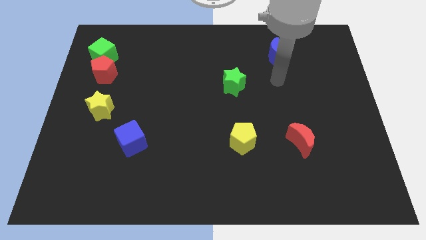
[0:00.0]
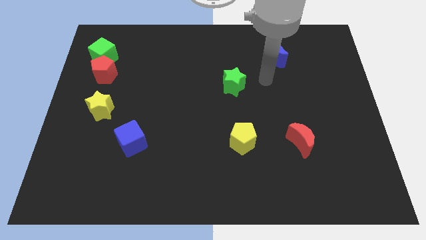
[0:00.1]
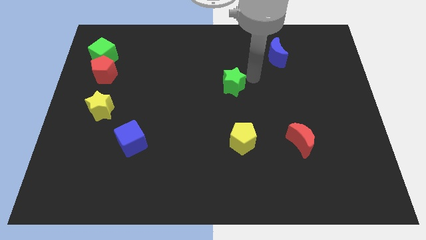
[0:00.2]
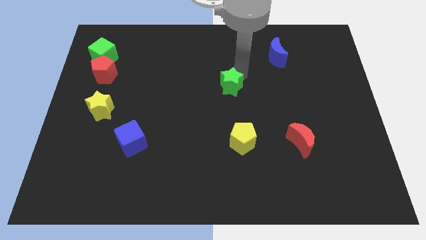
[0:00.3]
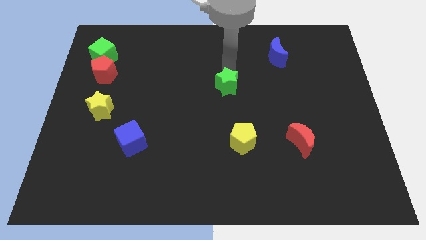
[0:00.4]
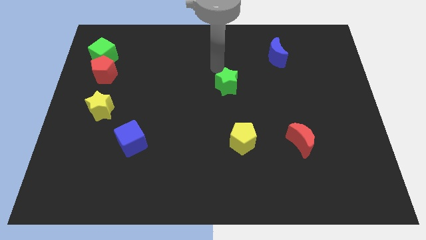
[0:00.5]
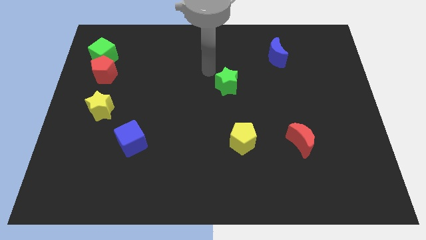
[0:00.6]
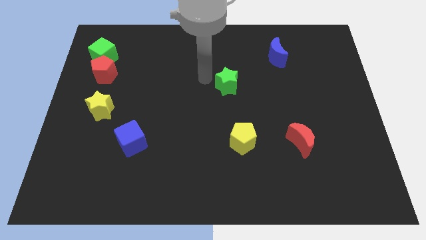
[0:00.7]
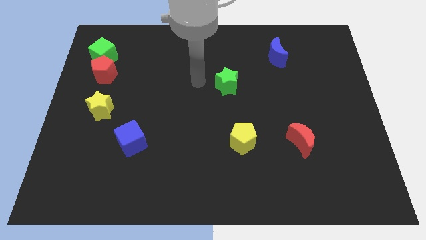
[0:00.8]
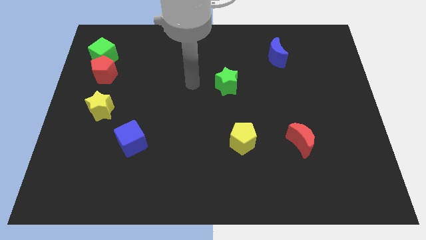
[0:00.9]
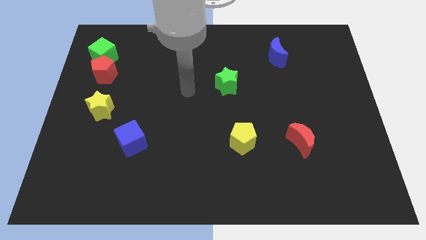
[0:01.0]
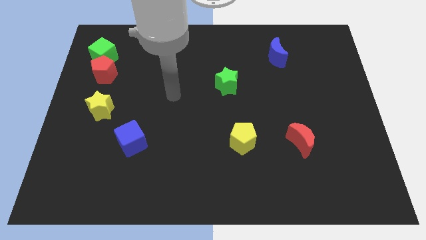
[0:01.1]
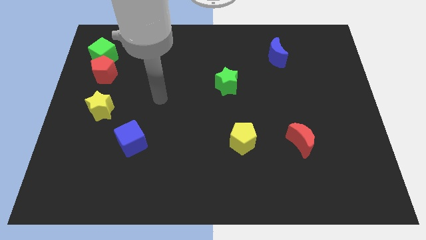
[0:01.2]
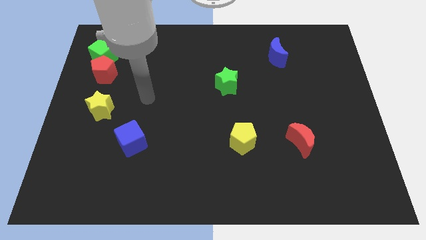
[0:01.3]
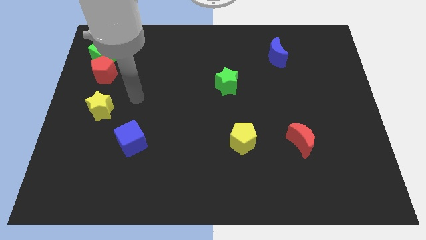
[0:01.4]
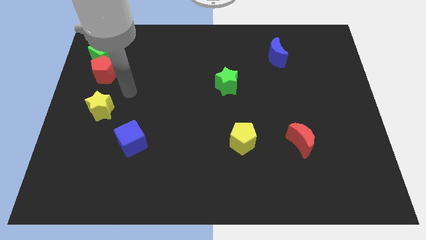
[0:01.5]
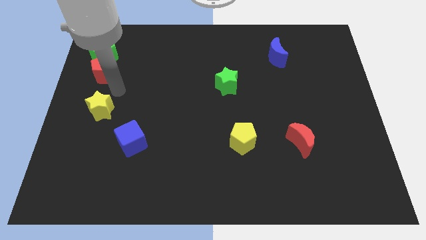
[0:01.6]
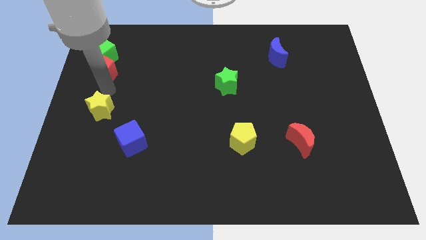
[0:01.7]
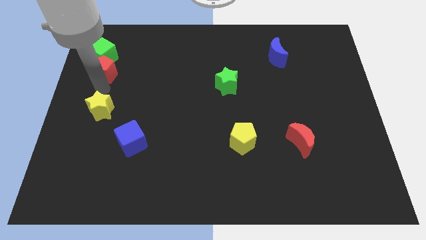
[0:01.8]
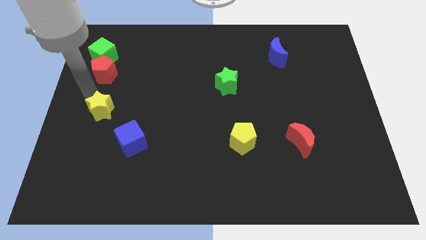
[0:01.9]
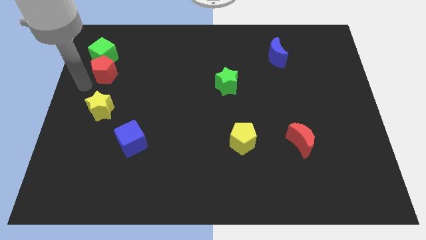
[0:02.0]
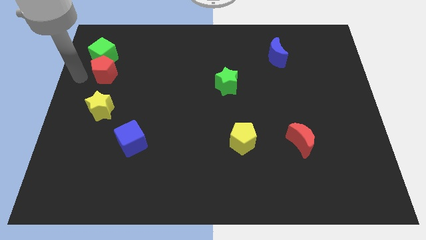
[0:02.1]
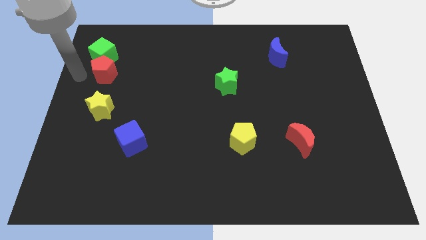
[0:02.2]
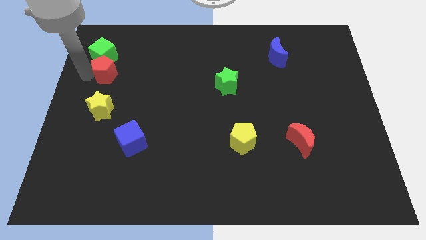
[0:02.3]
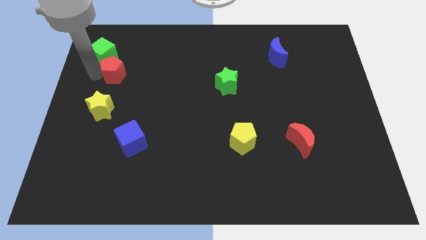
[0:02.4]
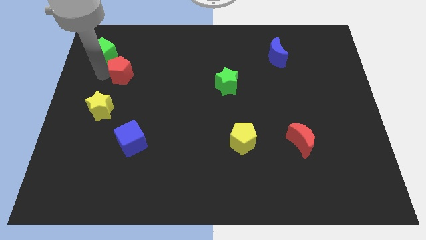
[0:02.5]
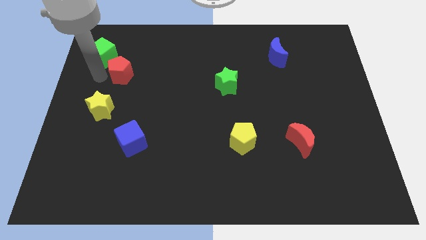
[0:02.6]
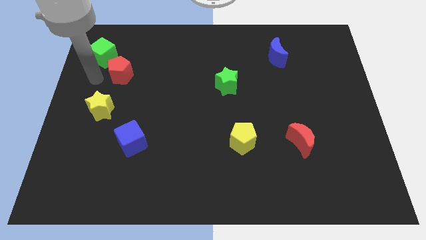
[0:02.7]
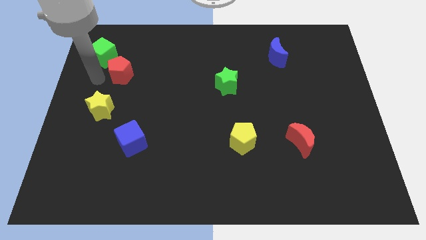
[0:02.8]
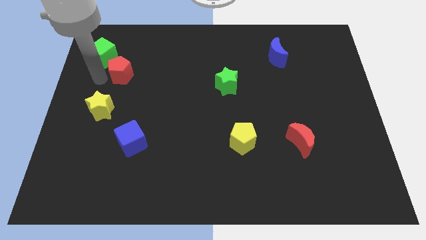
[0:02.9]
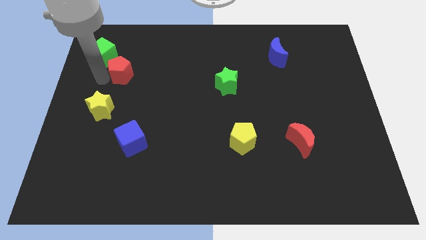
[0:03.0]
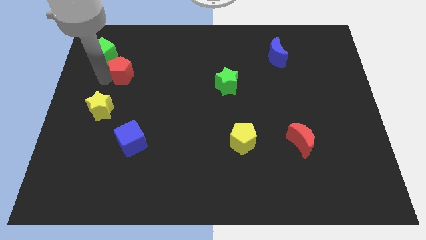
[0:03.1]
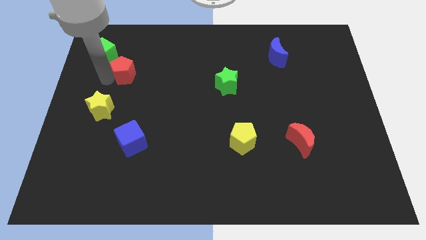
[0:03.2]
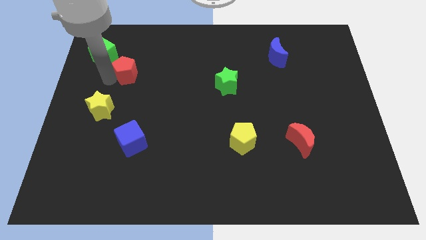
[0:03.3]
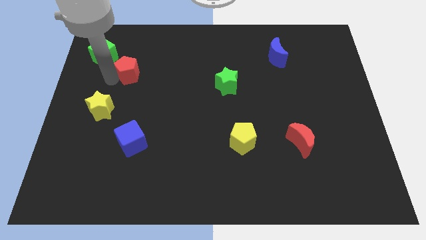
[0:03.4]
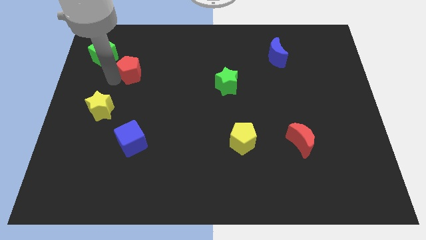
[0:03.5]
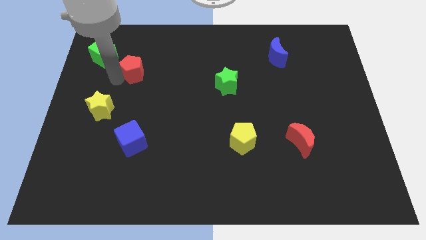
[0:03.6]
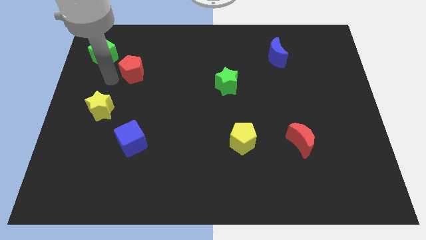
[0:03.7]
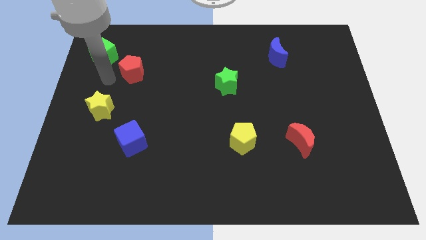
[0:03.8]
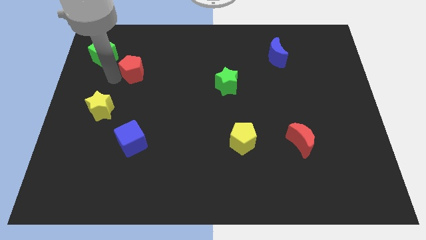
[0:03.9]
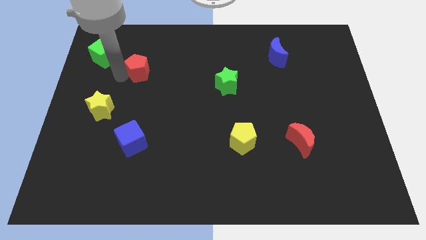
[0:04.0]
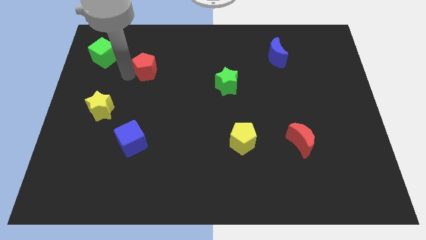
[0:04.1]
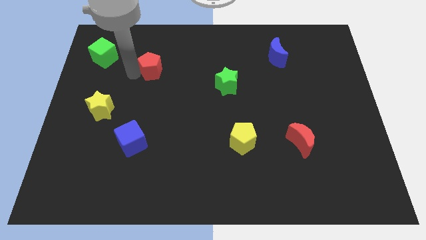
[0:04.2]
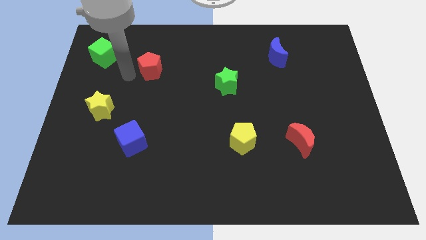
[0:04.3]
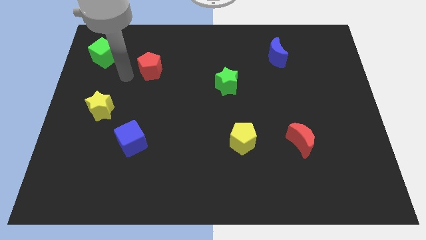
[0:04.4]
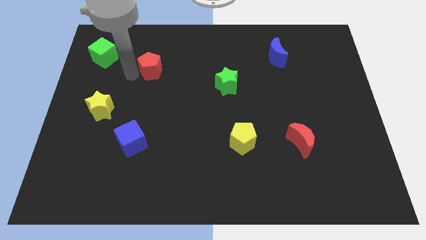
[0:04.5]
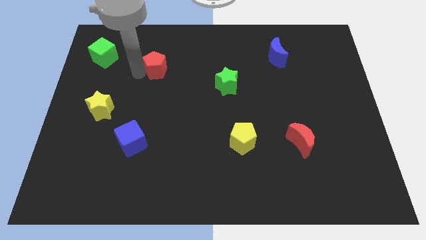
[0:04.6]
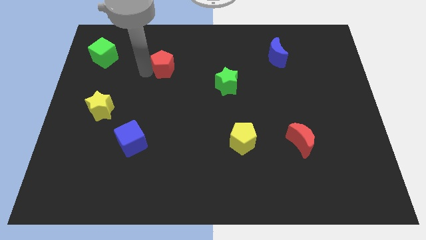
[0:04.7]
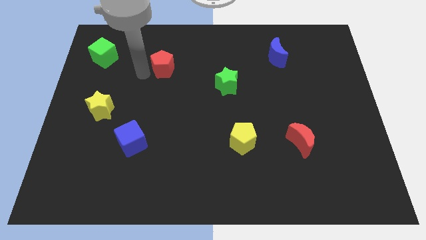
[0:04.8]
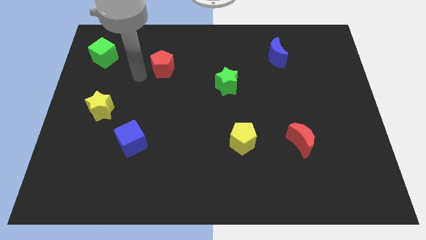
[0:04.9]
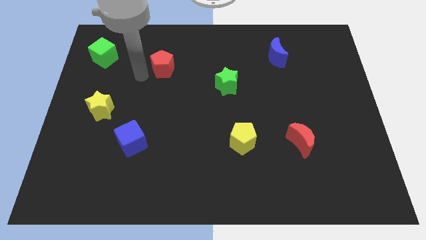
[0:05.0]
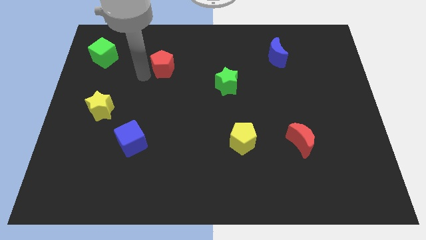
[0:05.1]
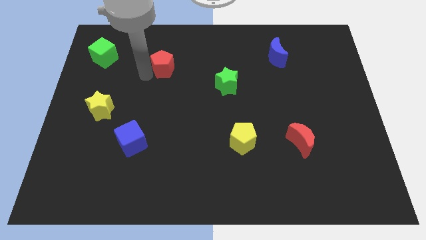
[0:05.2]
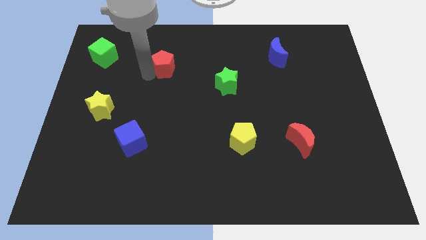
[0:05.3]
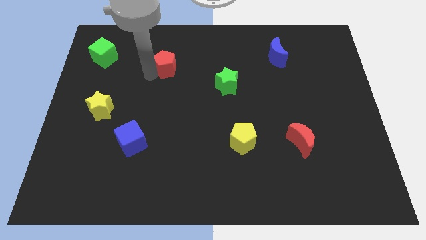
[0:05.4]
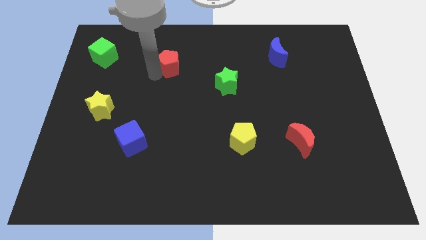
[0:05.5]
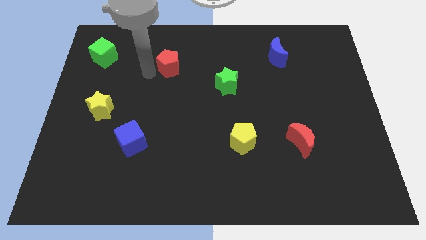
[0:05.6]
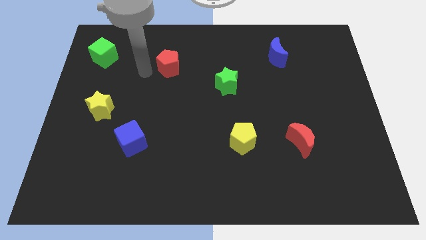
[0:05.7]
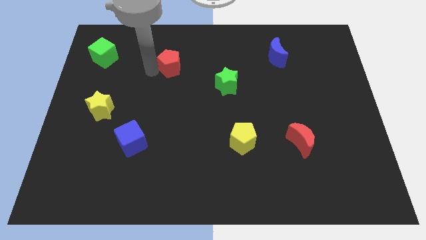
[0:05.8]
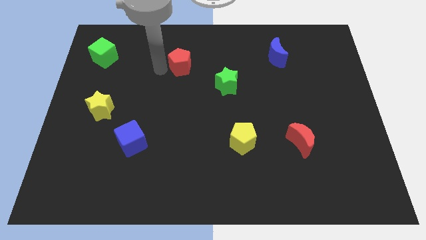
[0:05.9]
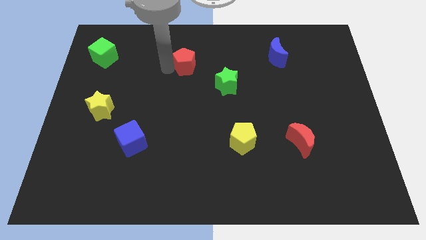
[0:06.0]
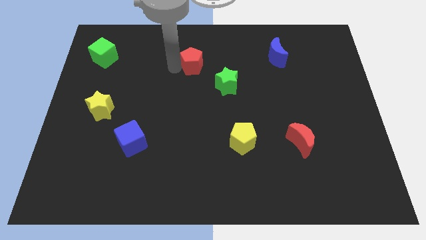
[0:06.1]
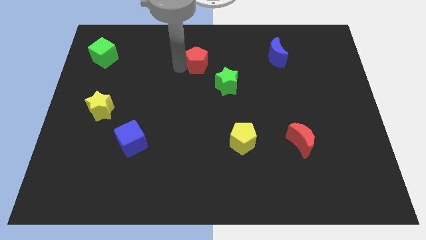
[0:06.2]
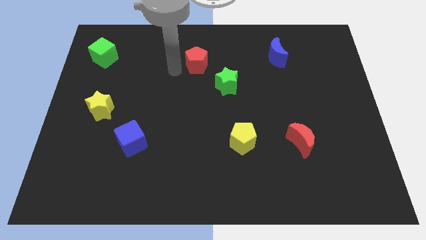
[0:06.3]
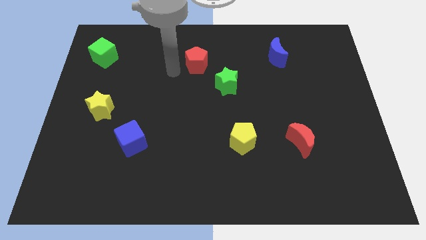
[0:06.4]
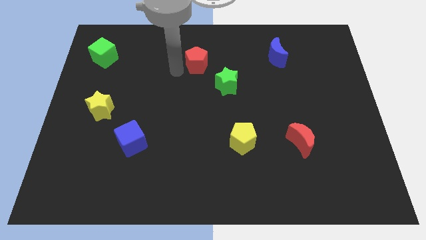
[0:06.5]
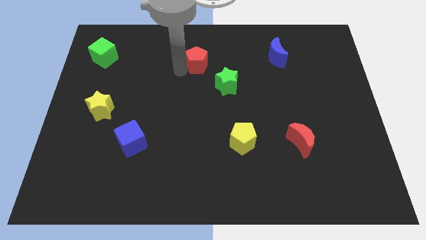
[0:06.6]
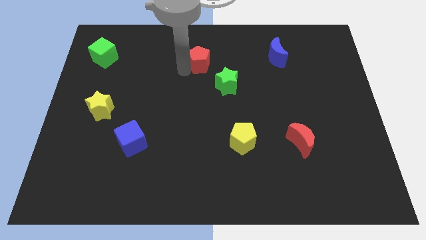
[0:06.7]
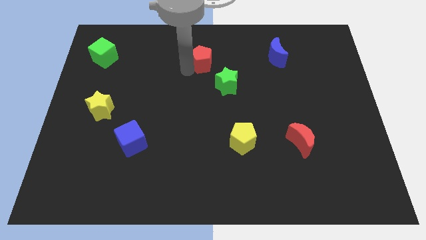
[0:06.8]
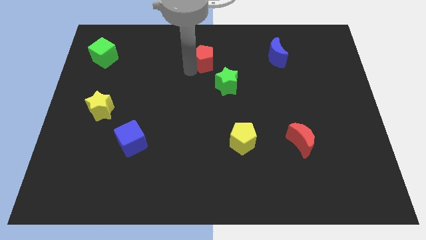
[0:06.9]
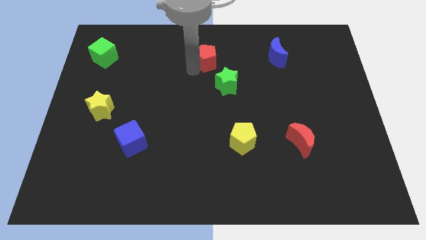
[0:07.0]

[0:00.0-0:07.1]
push the red pentagon to the top of the green star

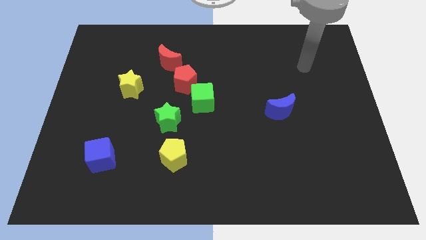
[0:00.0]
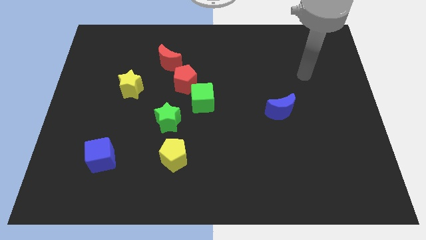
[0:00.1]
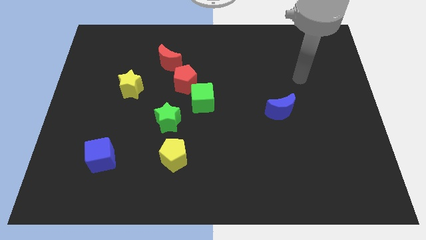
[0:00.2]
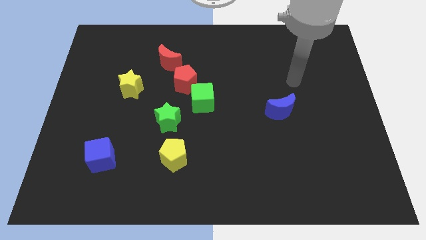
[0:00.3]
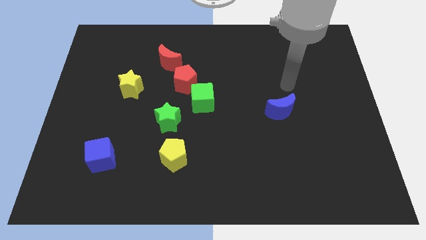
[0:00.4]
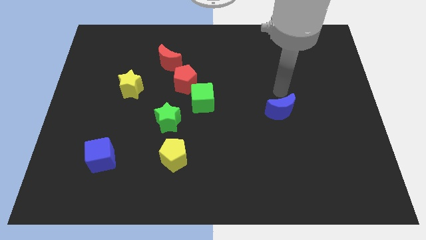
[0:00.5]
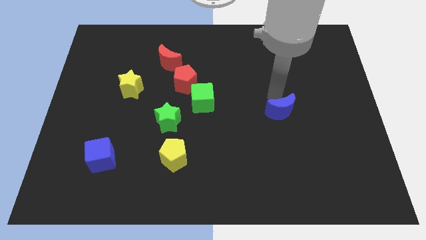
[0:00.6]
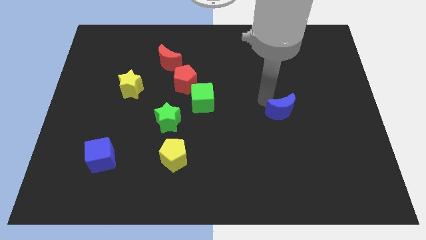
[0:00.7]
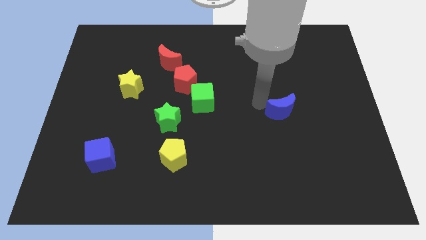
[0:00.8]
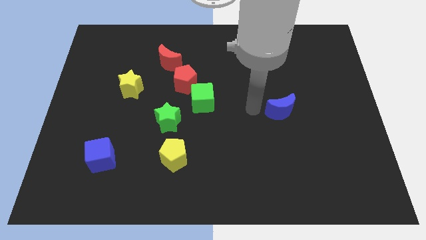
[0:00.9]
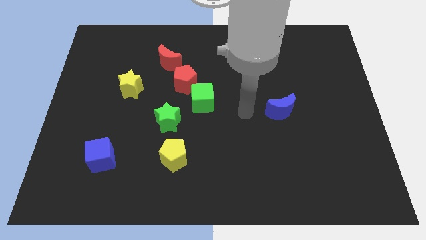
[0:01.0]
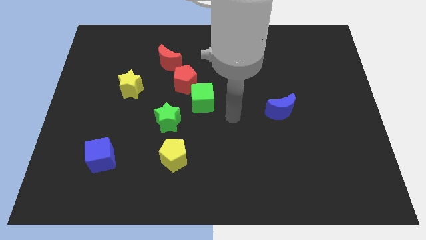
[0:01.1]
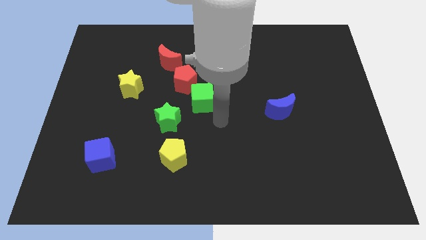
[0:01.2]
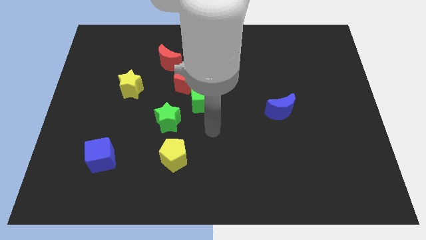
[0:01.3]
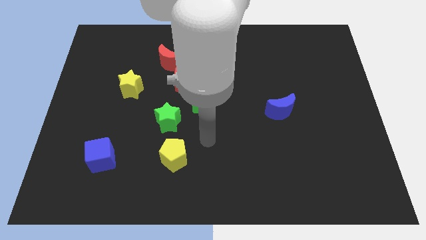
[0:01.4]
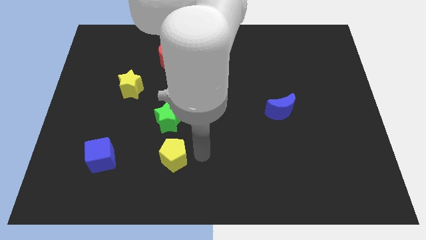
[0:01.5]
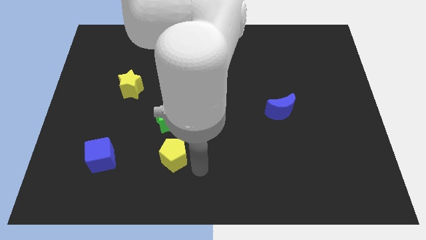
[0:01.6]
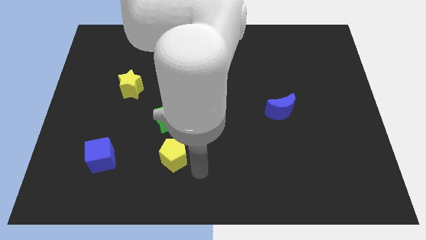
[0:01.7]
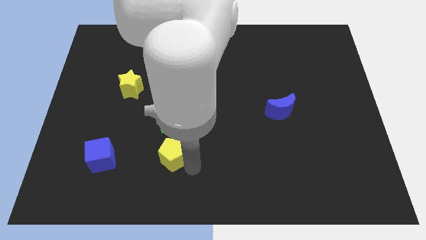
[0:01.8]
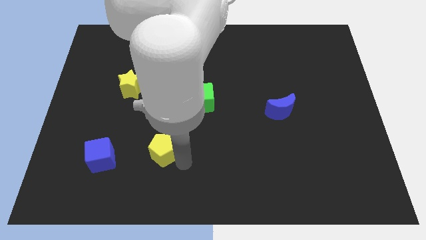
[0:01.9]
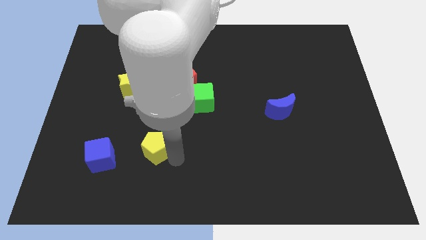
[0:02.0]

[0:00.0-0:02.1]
move the yellow pentagon to the bottom left of the green star
